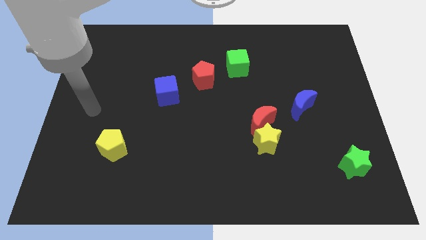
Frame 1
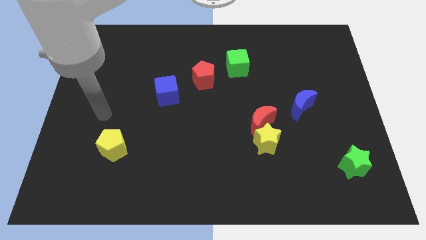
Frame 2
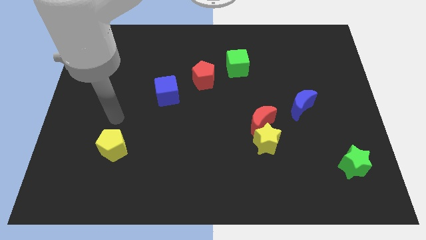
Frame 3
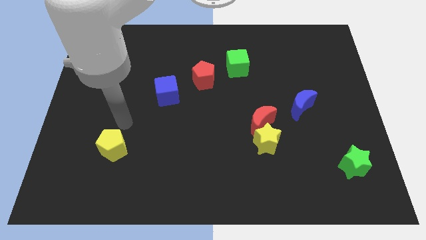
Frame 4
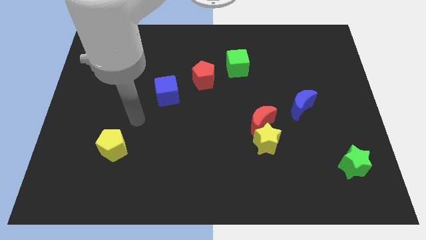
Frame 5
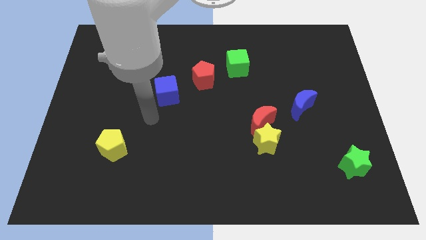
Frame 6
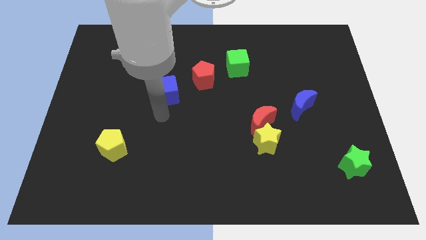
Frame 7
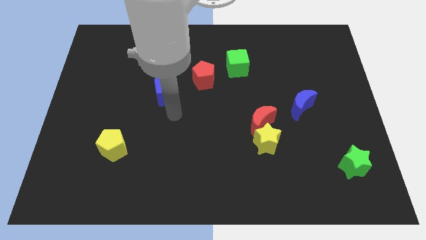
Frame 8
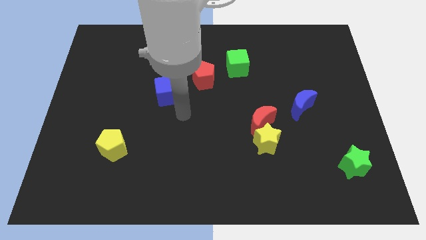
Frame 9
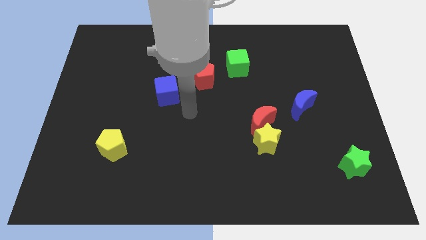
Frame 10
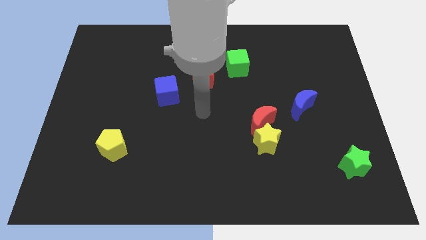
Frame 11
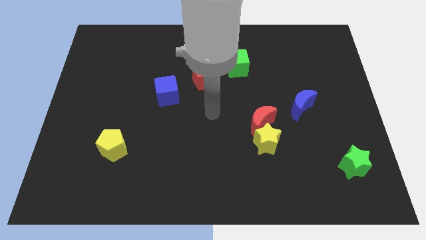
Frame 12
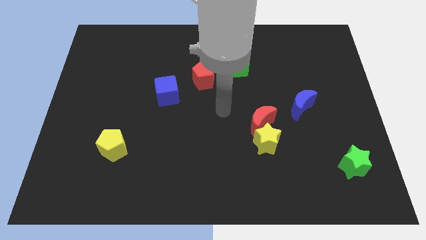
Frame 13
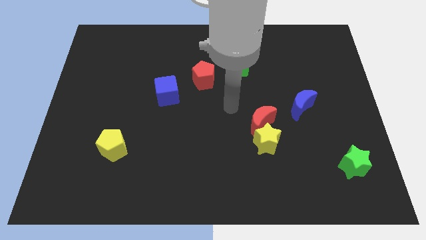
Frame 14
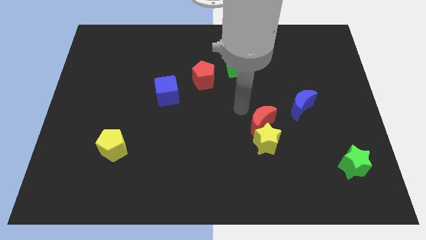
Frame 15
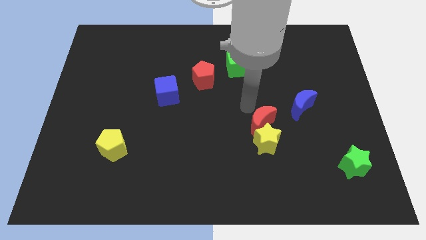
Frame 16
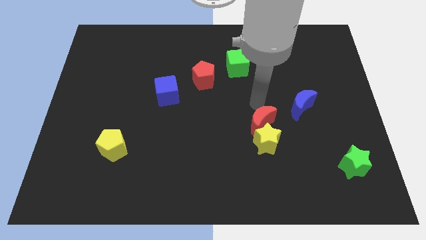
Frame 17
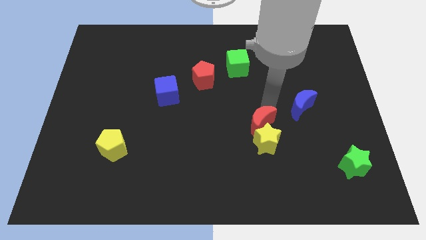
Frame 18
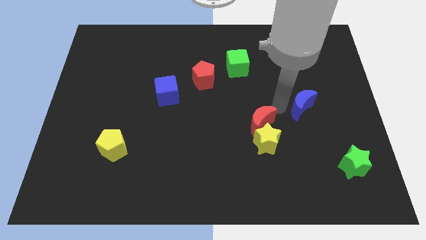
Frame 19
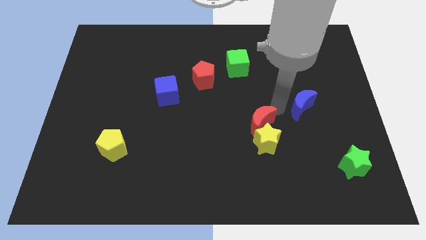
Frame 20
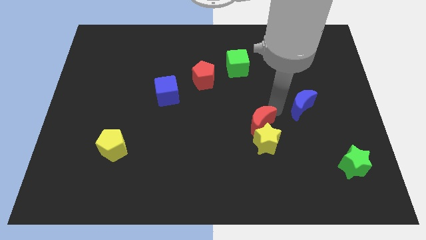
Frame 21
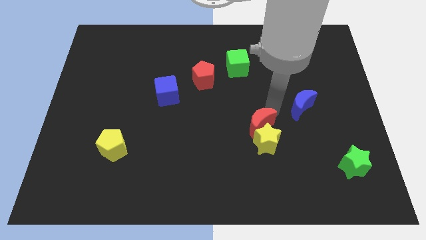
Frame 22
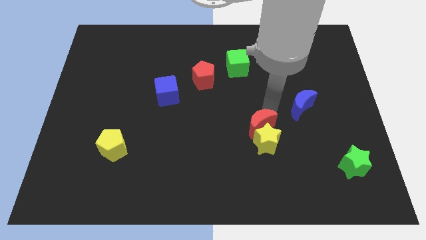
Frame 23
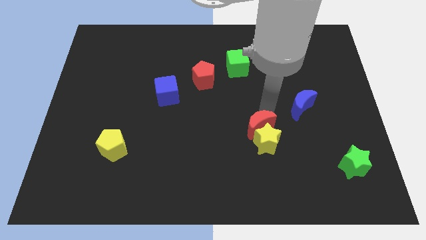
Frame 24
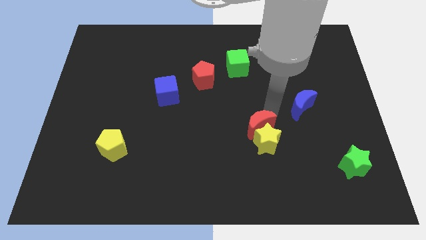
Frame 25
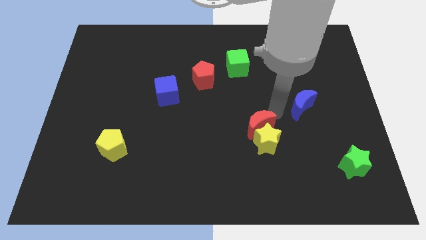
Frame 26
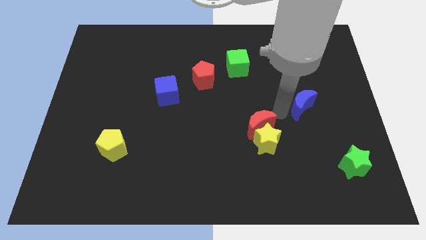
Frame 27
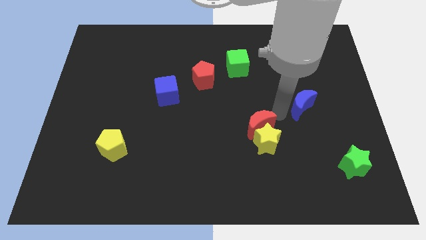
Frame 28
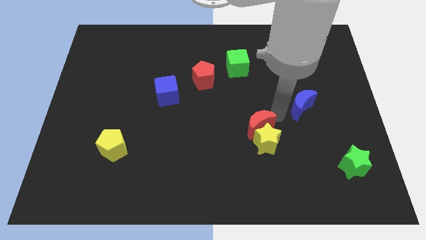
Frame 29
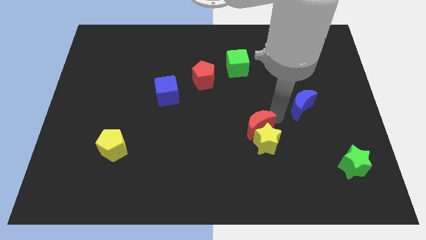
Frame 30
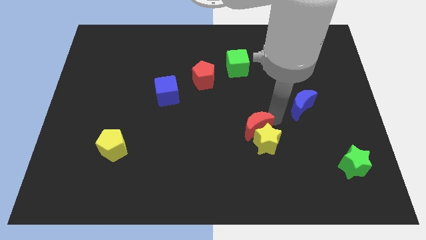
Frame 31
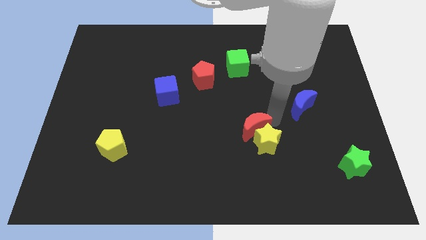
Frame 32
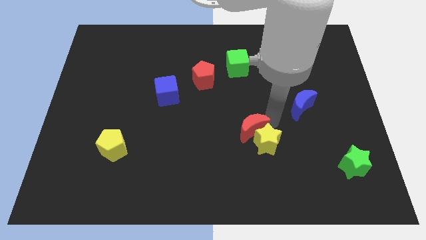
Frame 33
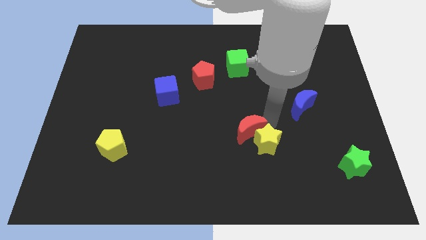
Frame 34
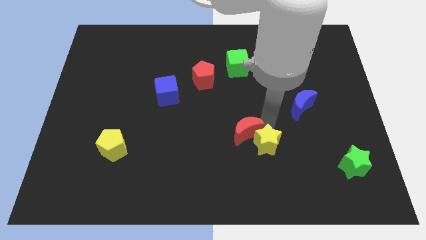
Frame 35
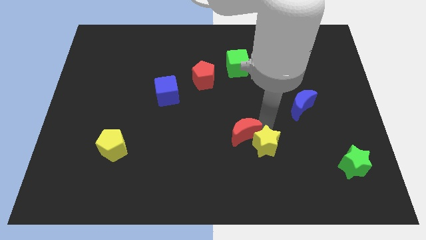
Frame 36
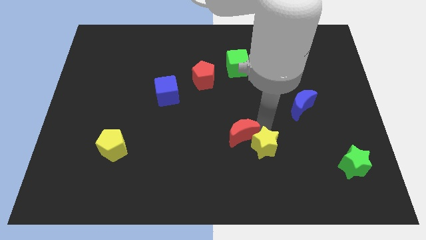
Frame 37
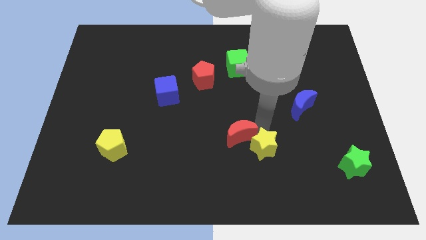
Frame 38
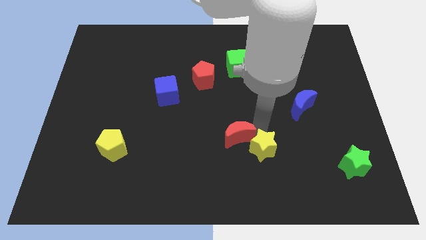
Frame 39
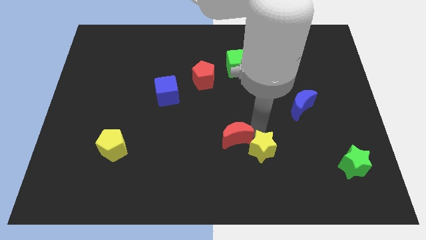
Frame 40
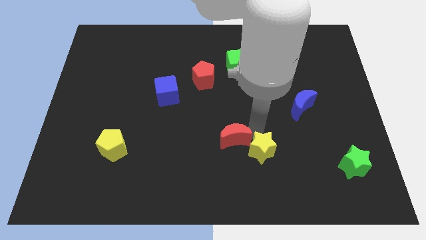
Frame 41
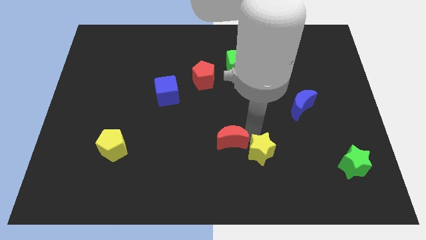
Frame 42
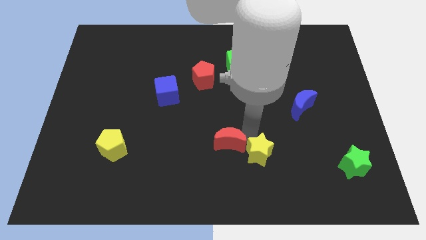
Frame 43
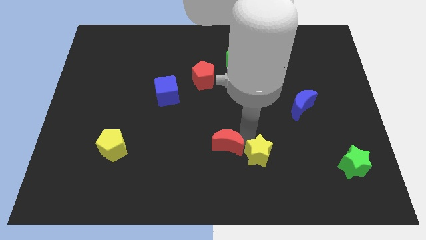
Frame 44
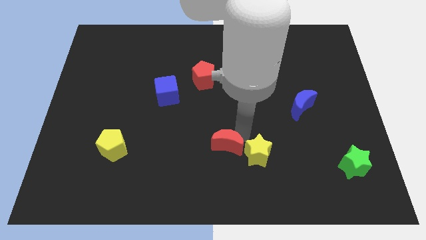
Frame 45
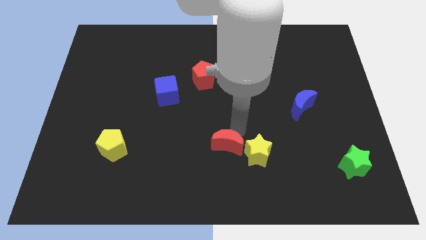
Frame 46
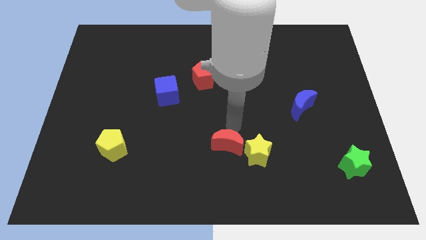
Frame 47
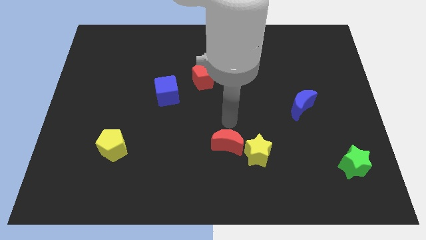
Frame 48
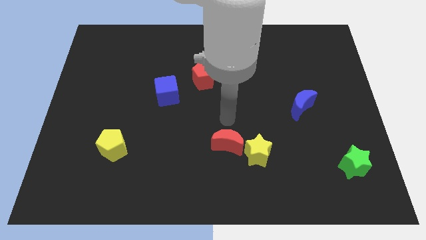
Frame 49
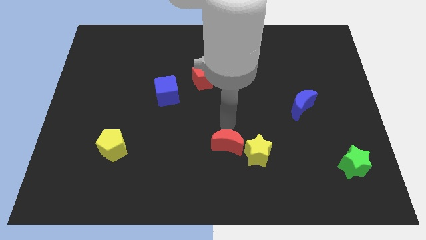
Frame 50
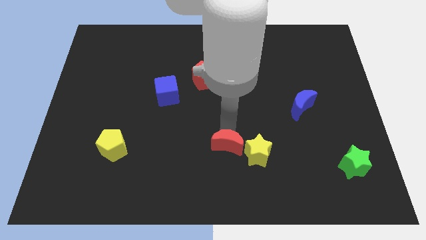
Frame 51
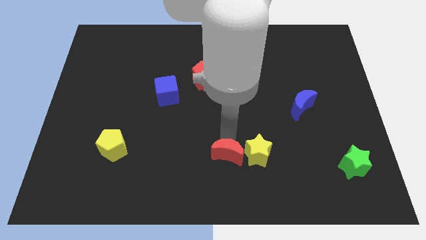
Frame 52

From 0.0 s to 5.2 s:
put the red moon to the bottom

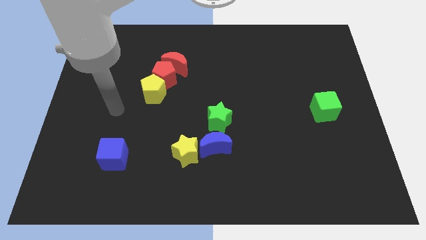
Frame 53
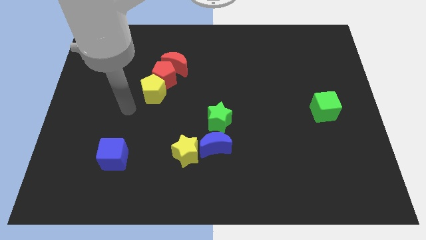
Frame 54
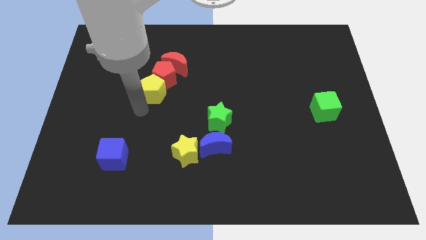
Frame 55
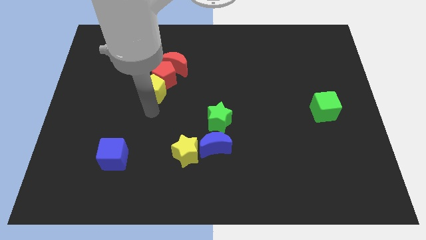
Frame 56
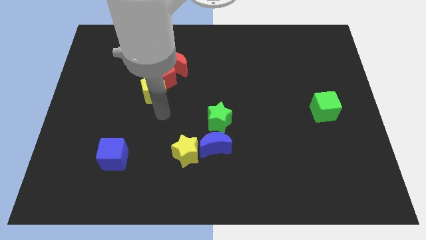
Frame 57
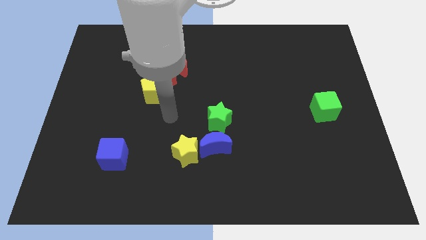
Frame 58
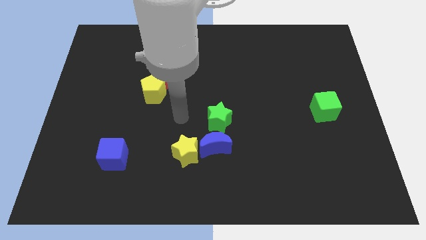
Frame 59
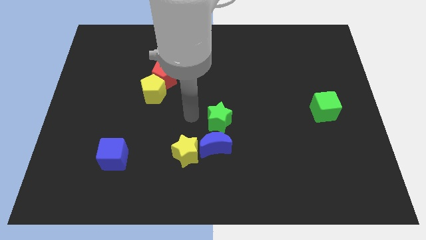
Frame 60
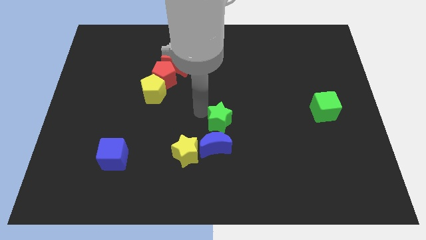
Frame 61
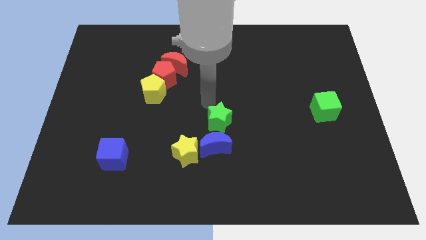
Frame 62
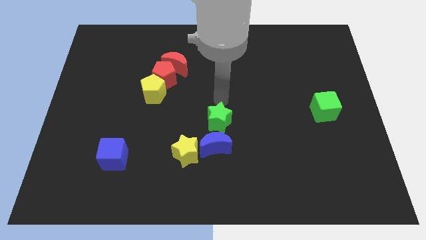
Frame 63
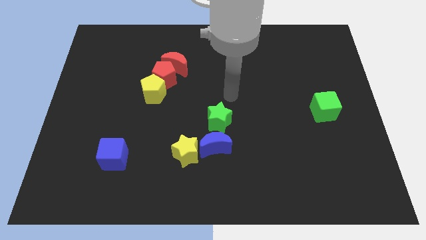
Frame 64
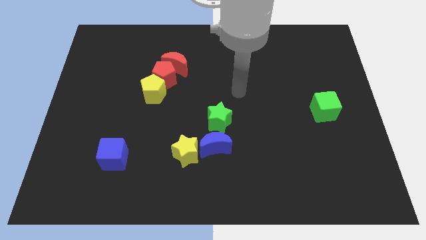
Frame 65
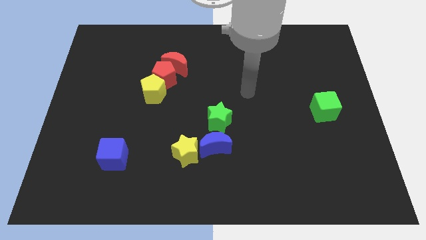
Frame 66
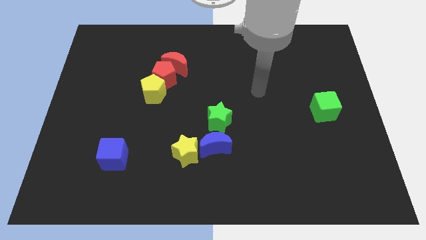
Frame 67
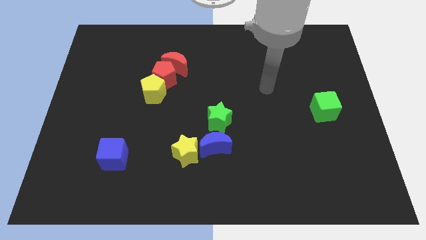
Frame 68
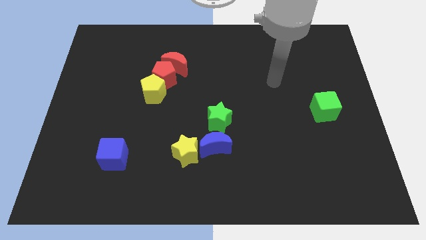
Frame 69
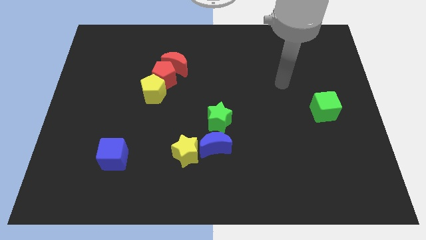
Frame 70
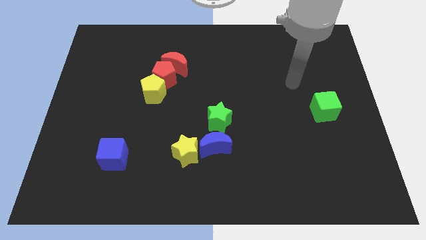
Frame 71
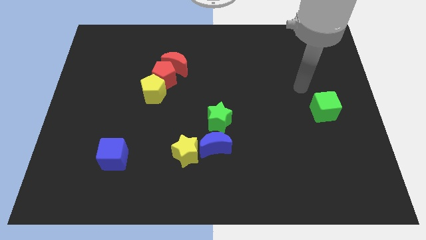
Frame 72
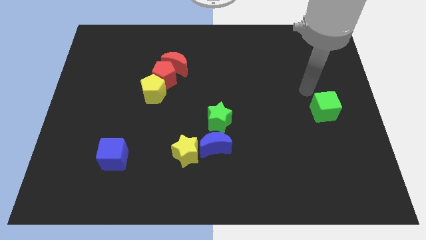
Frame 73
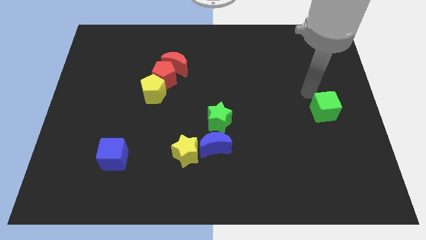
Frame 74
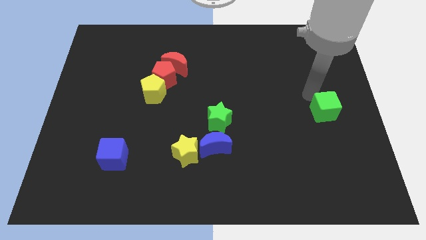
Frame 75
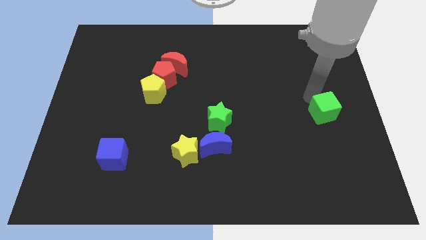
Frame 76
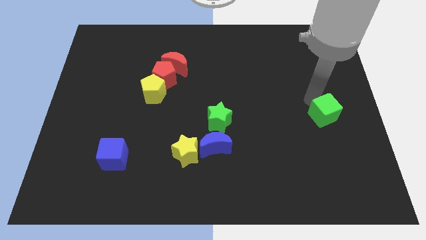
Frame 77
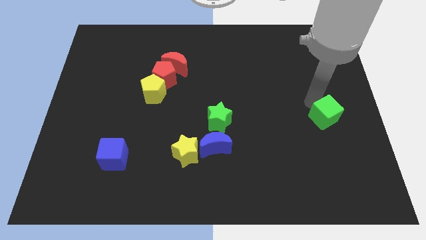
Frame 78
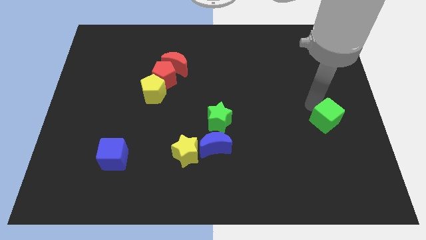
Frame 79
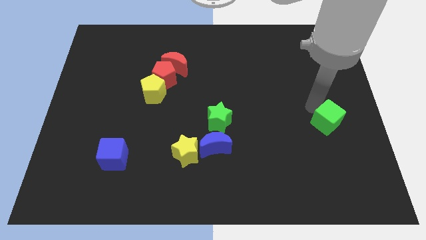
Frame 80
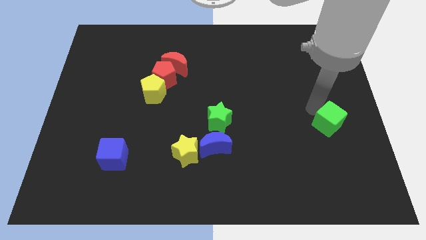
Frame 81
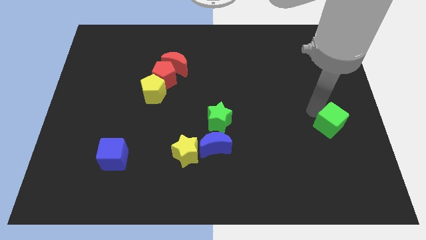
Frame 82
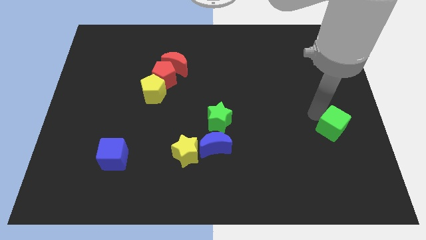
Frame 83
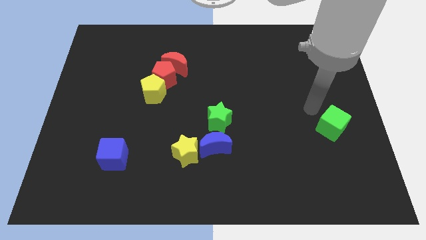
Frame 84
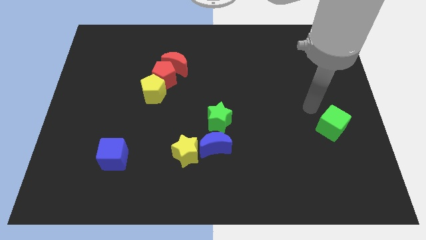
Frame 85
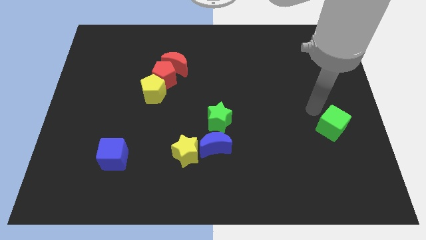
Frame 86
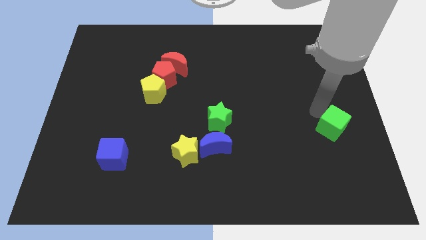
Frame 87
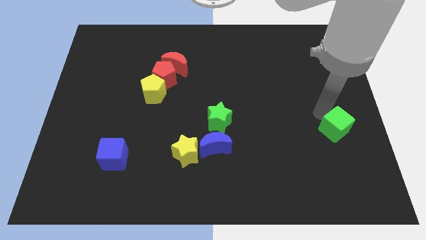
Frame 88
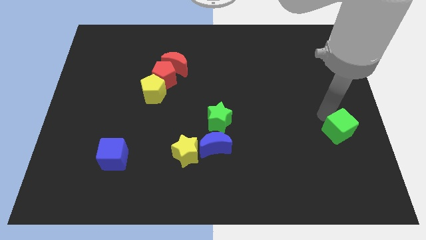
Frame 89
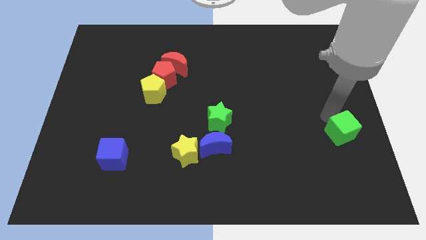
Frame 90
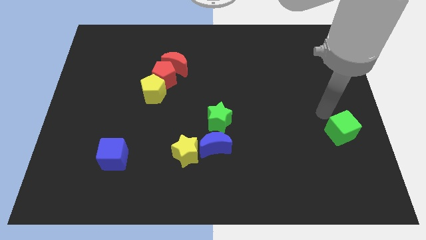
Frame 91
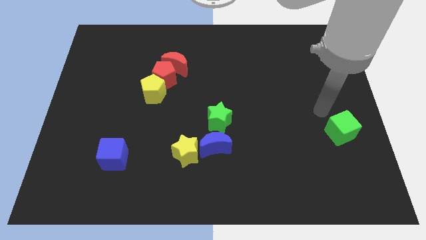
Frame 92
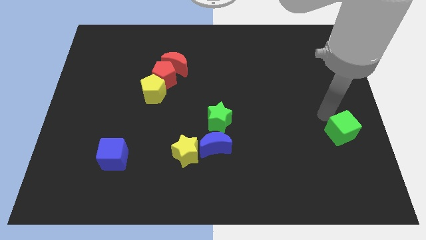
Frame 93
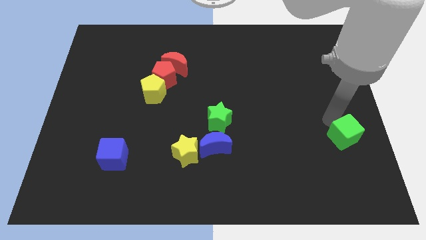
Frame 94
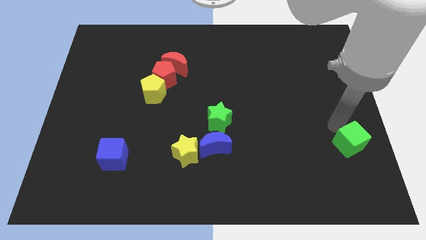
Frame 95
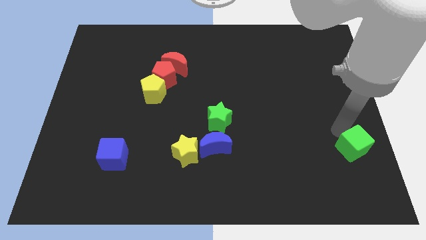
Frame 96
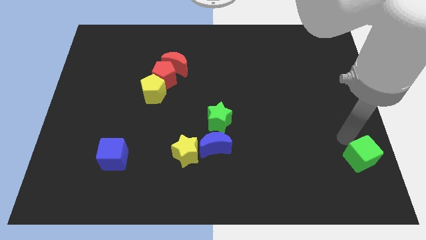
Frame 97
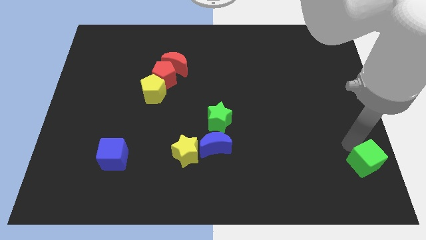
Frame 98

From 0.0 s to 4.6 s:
slide the green cube to the lower right corner
